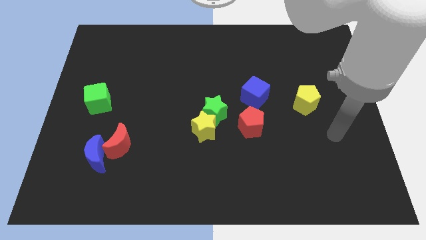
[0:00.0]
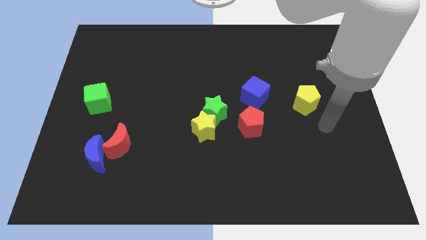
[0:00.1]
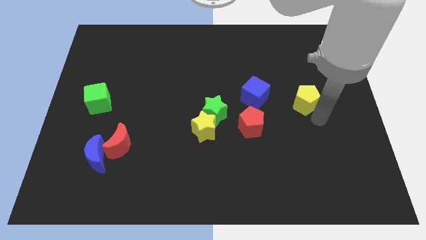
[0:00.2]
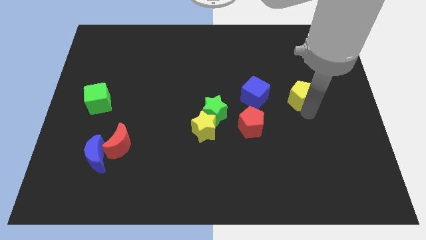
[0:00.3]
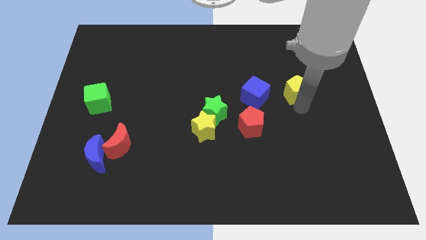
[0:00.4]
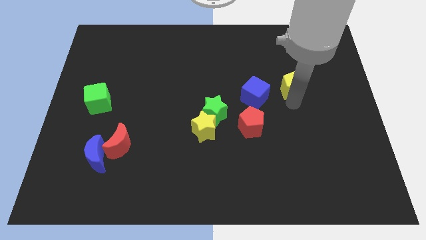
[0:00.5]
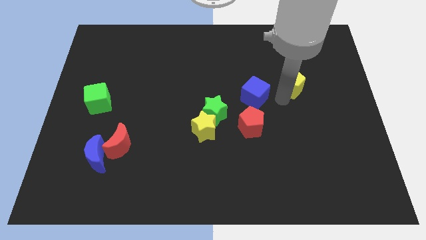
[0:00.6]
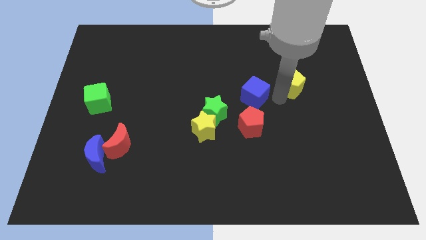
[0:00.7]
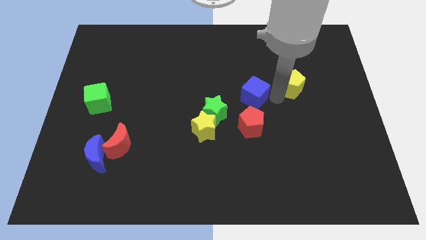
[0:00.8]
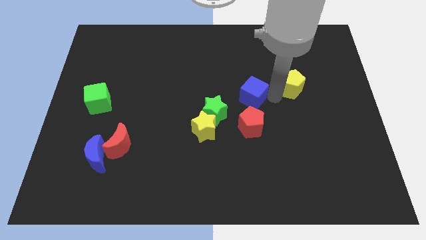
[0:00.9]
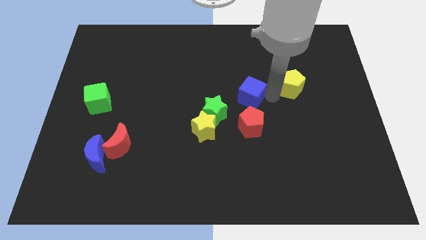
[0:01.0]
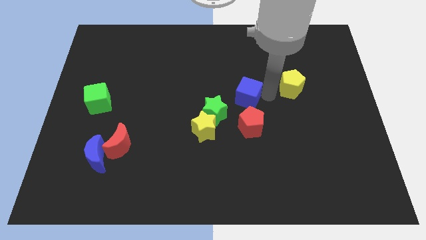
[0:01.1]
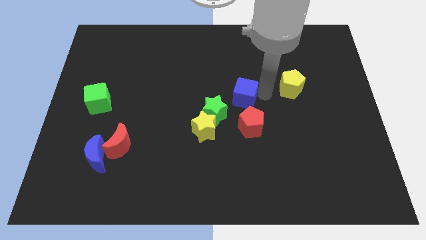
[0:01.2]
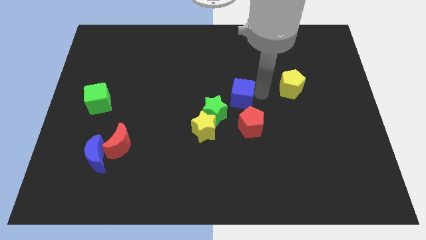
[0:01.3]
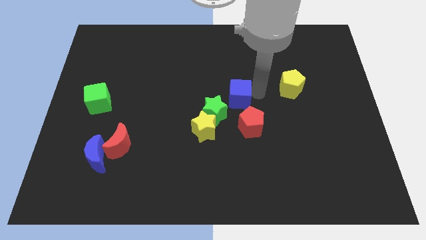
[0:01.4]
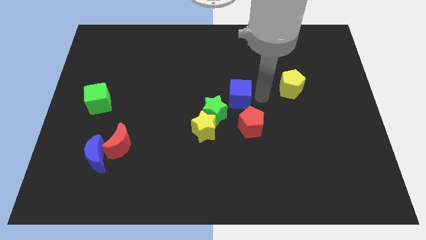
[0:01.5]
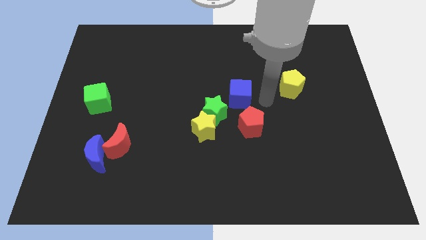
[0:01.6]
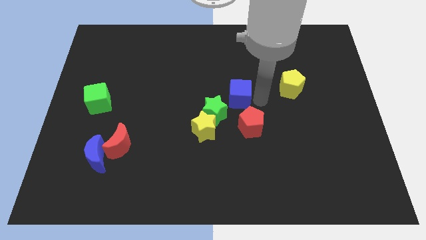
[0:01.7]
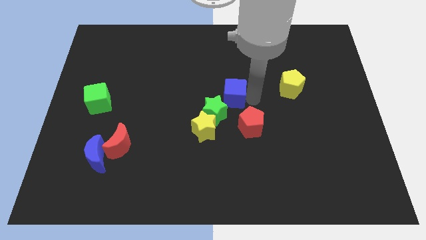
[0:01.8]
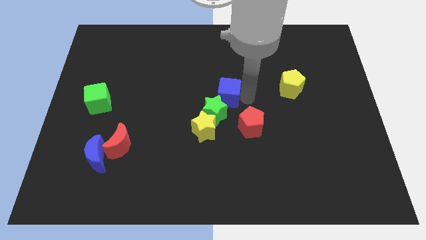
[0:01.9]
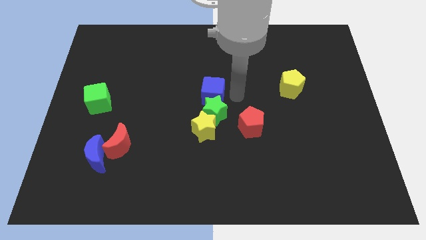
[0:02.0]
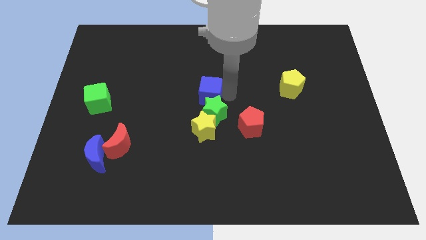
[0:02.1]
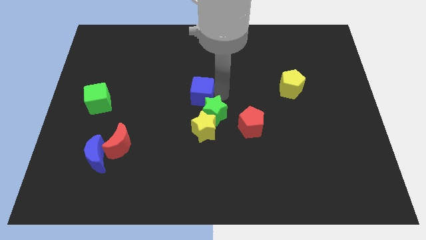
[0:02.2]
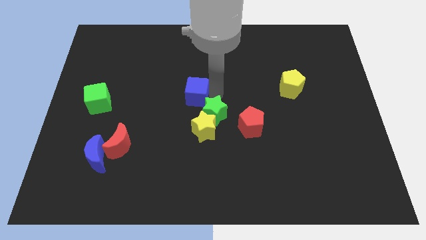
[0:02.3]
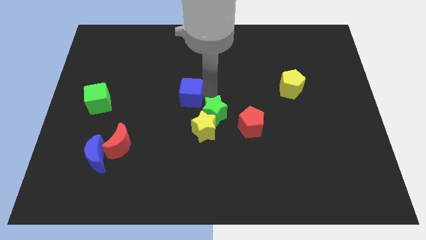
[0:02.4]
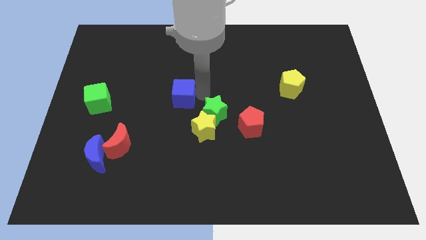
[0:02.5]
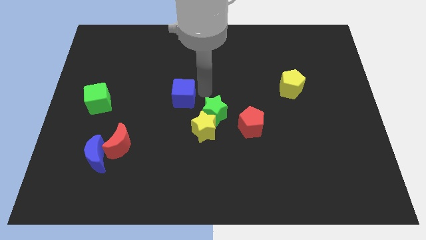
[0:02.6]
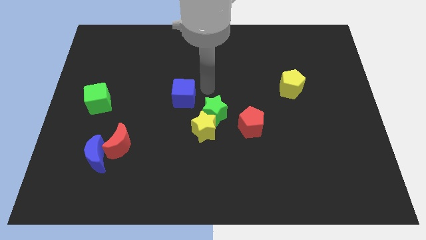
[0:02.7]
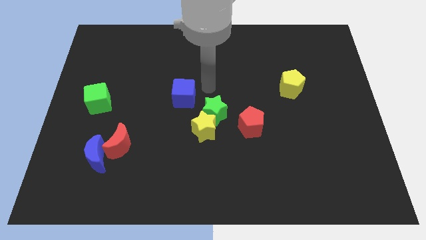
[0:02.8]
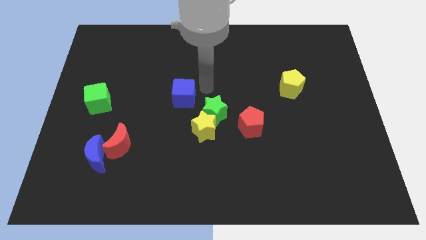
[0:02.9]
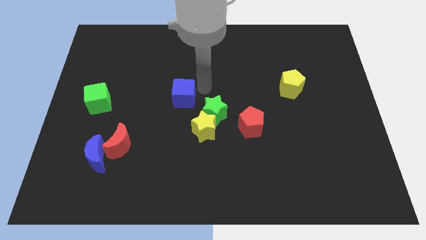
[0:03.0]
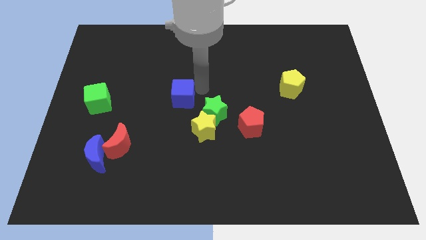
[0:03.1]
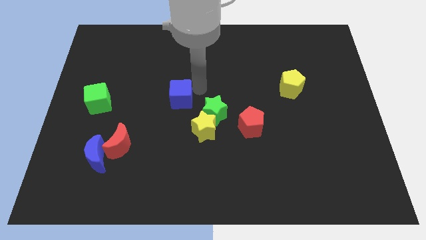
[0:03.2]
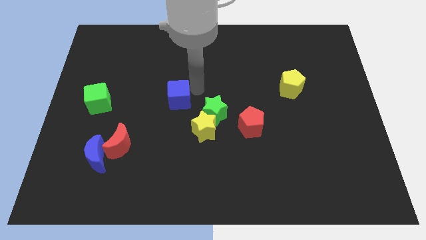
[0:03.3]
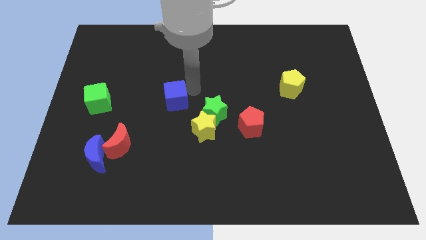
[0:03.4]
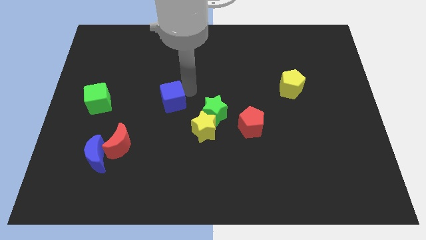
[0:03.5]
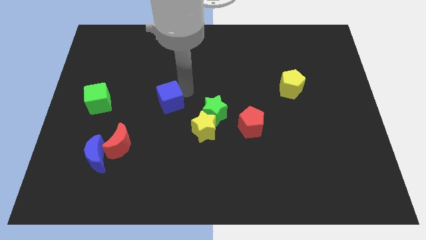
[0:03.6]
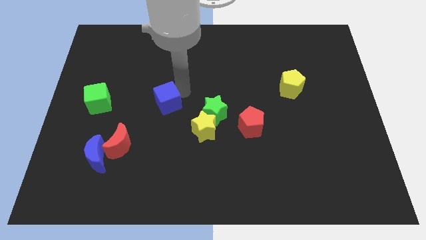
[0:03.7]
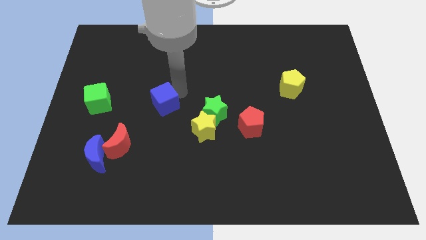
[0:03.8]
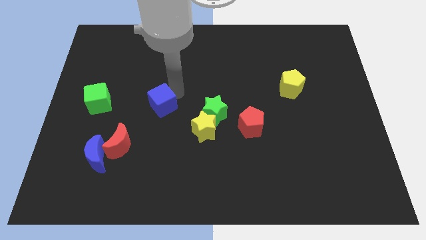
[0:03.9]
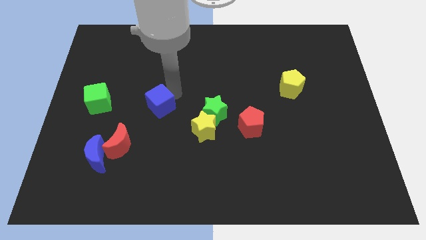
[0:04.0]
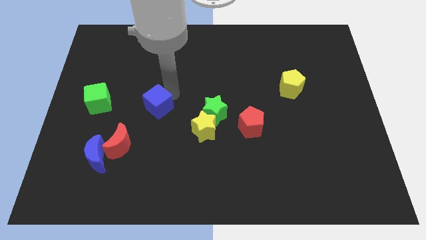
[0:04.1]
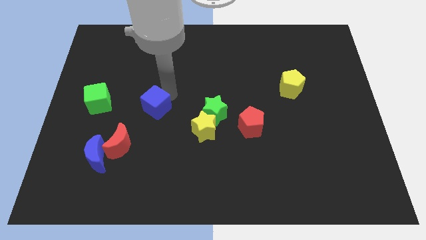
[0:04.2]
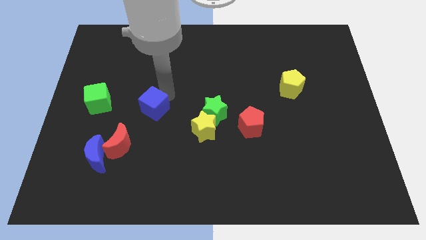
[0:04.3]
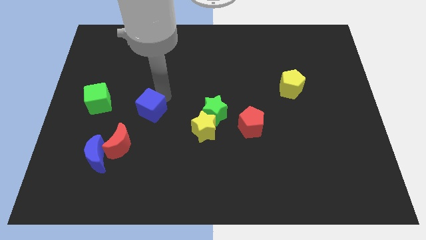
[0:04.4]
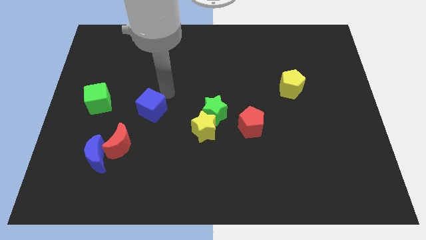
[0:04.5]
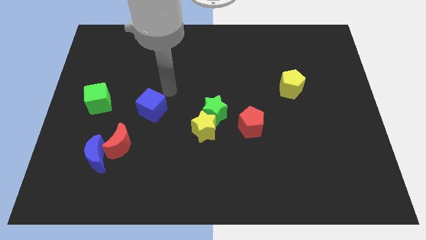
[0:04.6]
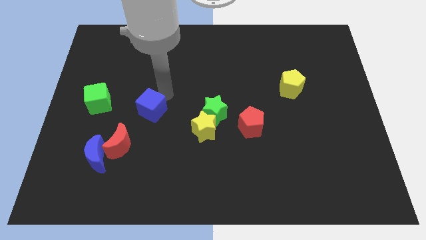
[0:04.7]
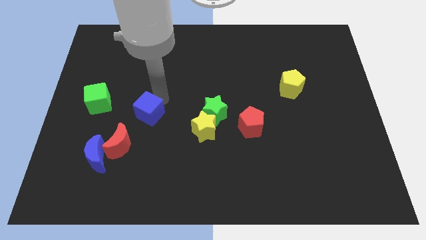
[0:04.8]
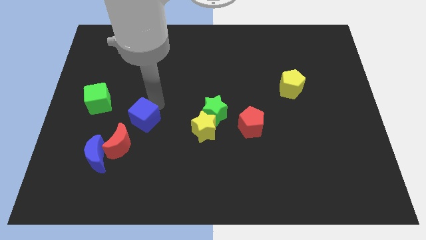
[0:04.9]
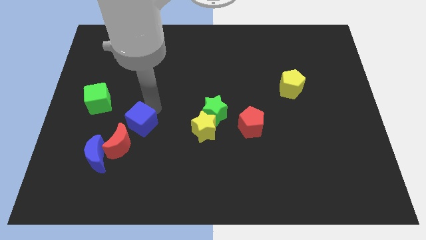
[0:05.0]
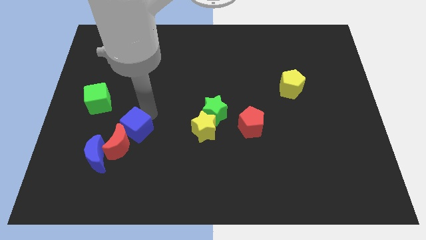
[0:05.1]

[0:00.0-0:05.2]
slide the blue cube close to the red moon

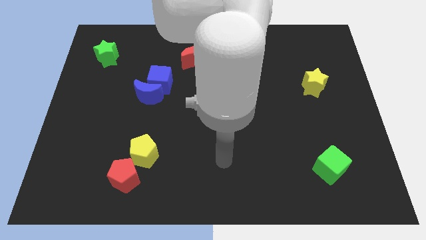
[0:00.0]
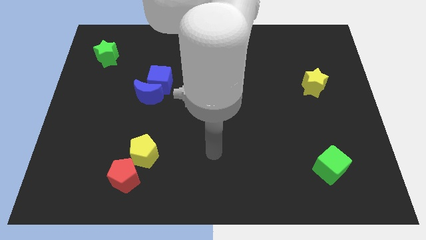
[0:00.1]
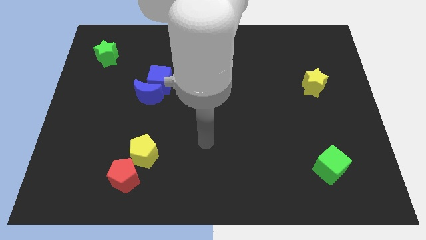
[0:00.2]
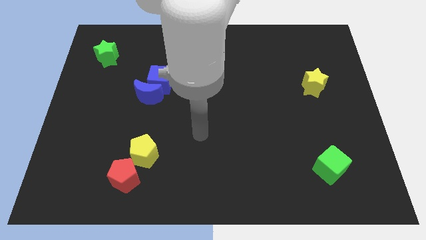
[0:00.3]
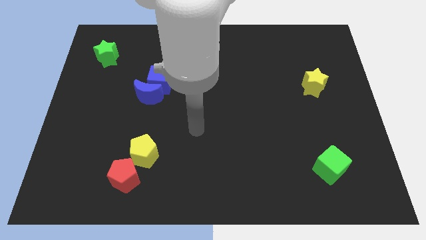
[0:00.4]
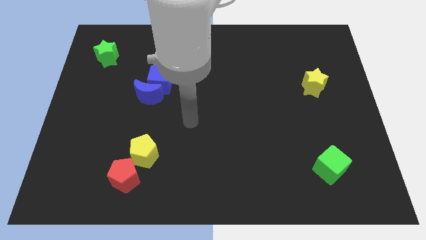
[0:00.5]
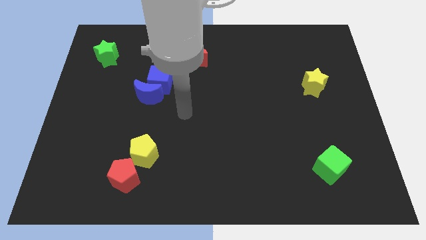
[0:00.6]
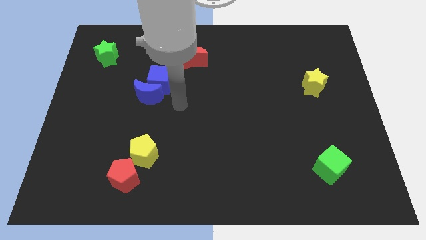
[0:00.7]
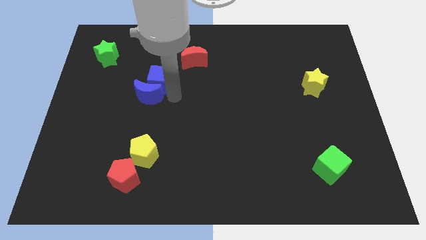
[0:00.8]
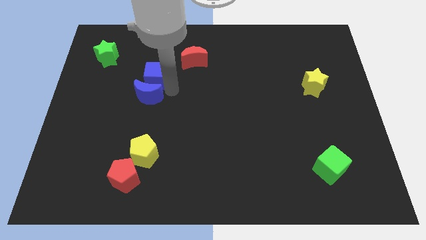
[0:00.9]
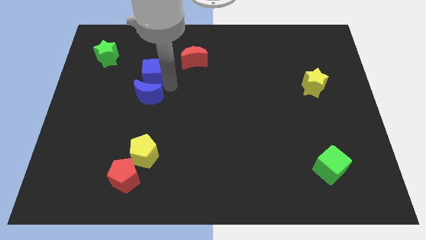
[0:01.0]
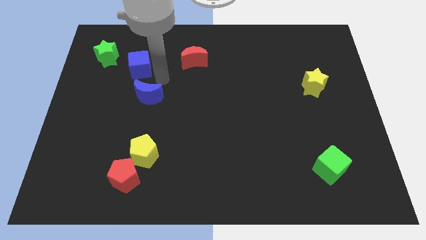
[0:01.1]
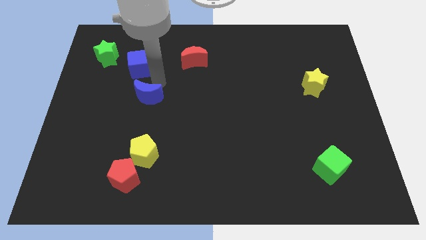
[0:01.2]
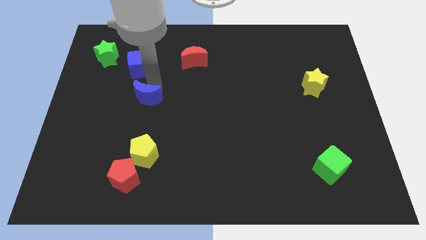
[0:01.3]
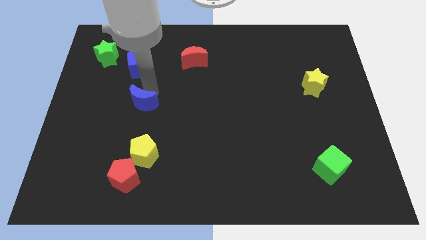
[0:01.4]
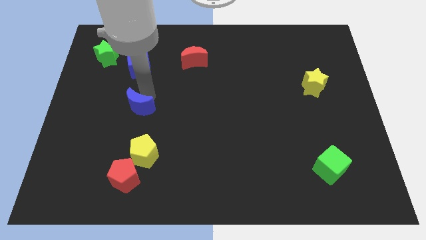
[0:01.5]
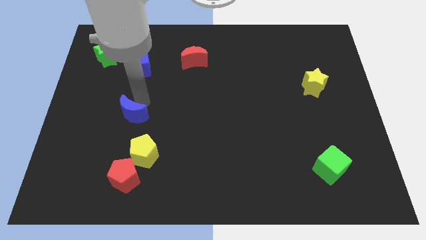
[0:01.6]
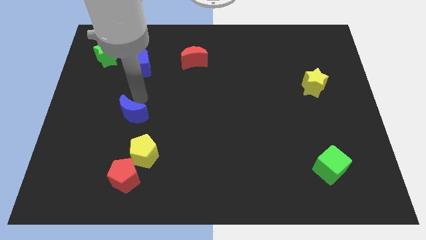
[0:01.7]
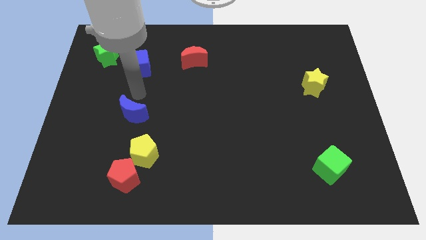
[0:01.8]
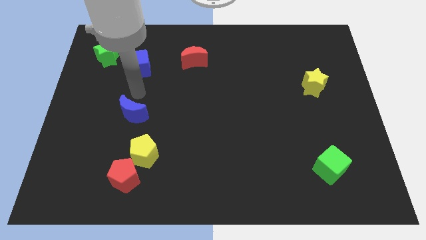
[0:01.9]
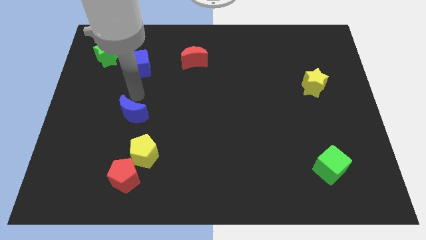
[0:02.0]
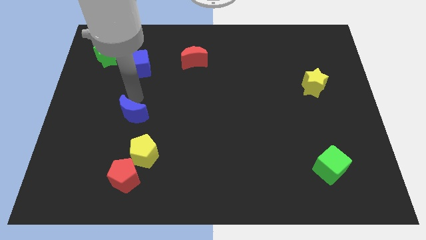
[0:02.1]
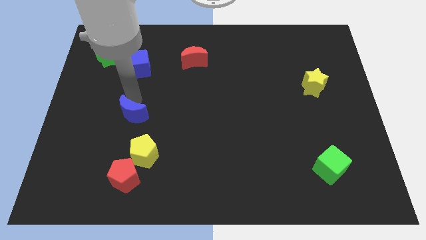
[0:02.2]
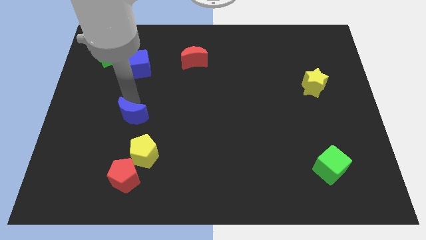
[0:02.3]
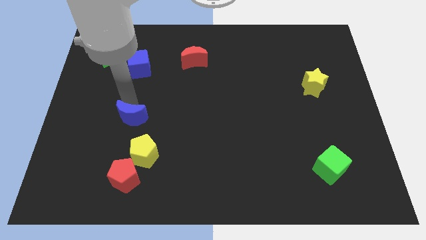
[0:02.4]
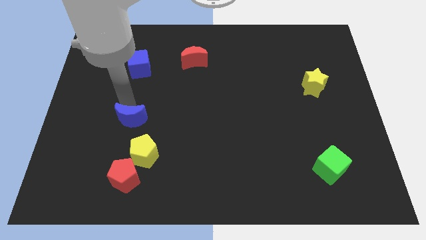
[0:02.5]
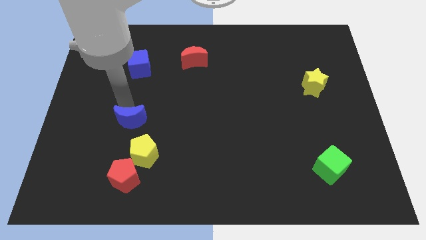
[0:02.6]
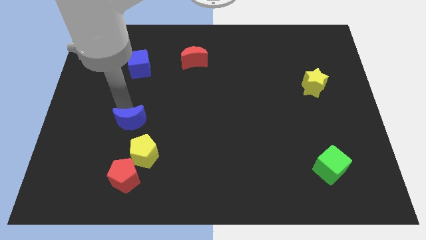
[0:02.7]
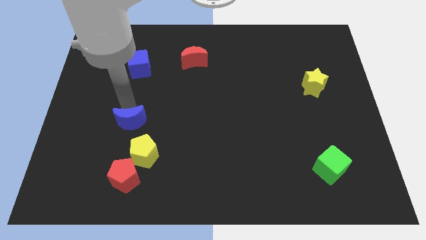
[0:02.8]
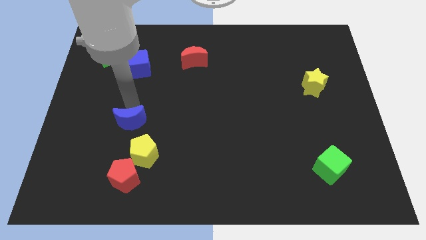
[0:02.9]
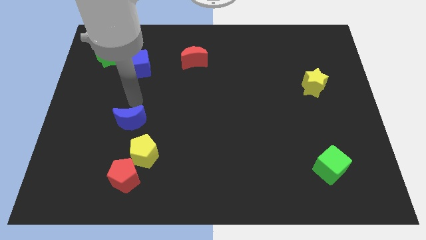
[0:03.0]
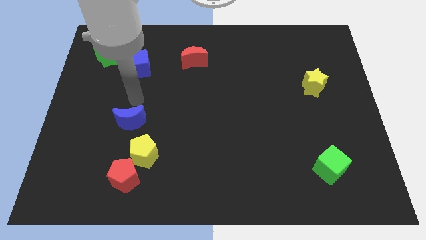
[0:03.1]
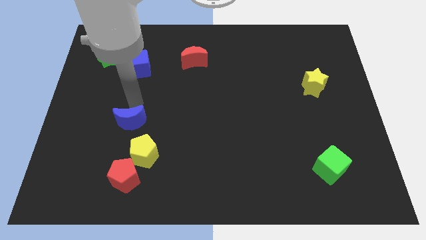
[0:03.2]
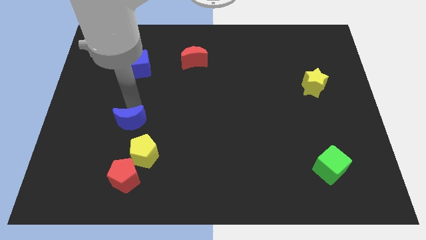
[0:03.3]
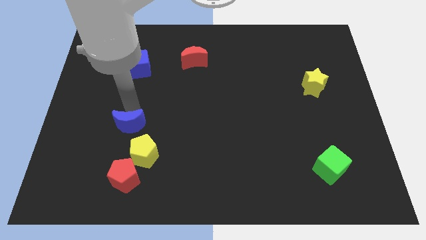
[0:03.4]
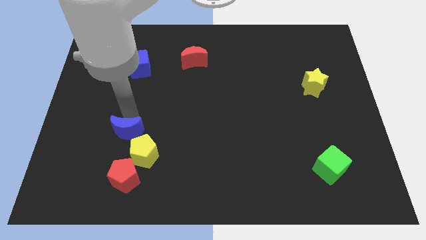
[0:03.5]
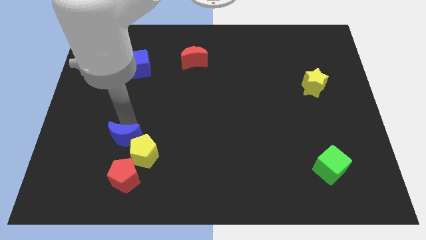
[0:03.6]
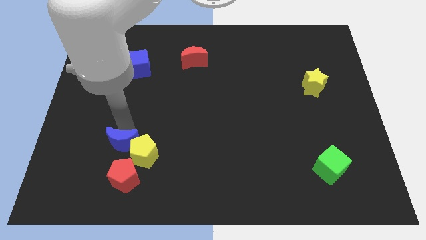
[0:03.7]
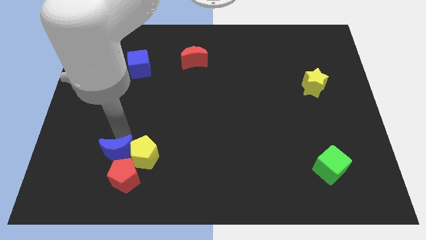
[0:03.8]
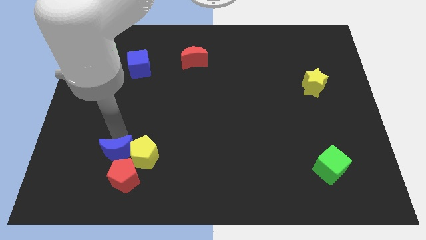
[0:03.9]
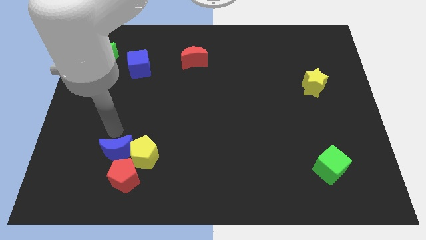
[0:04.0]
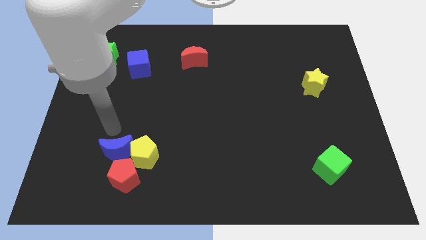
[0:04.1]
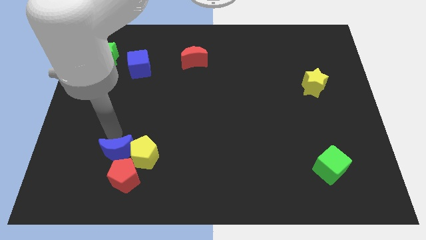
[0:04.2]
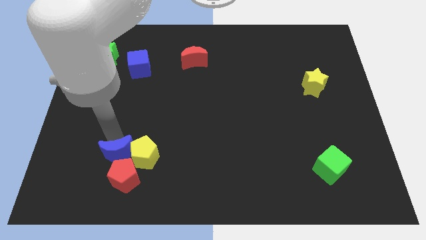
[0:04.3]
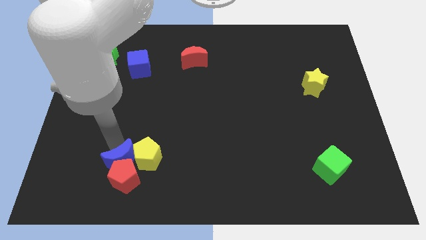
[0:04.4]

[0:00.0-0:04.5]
put the blue moon close to the red pentagon
